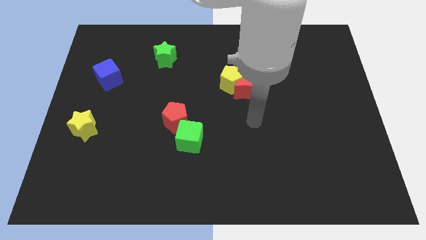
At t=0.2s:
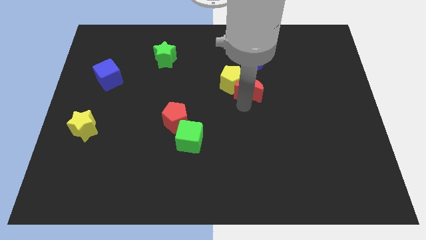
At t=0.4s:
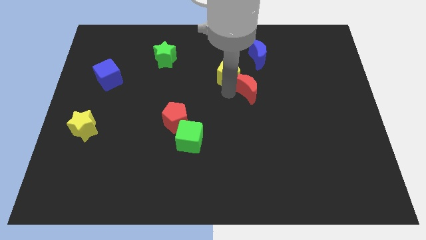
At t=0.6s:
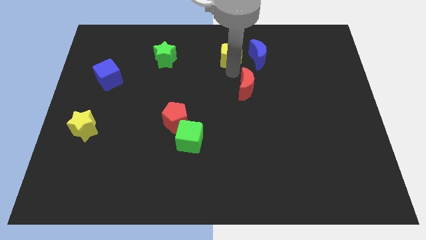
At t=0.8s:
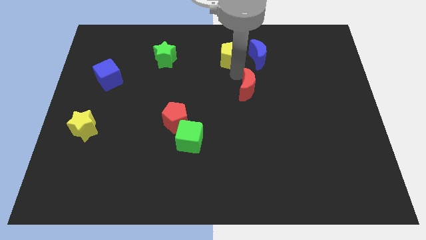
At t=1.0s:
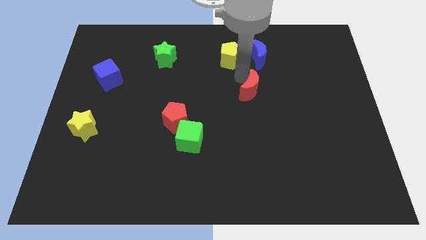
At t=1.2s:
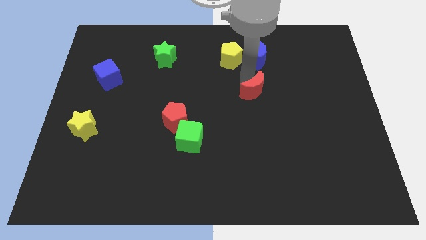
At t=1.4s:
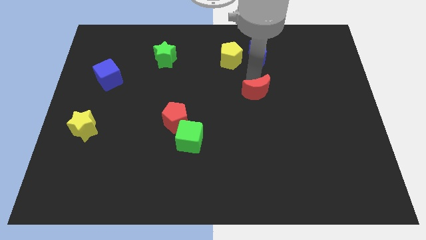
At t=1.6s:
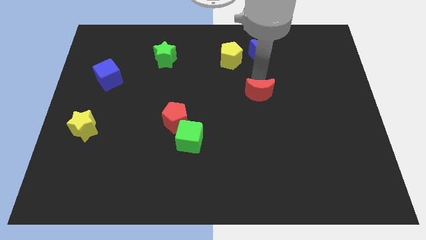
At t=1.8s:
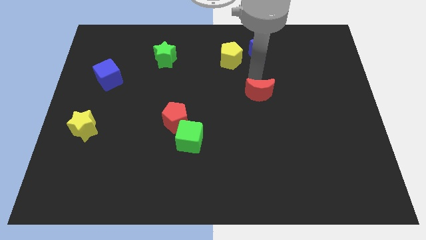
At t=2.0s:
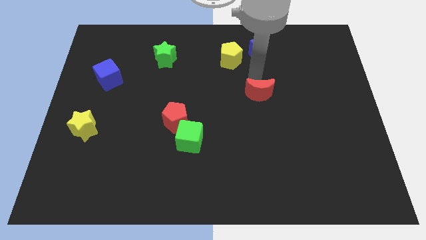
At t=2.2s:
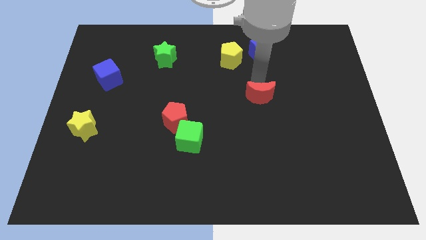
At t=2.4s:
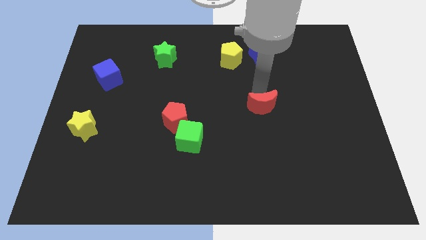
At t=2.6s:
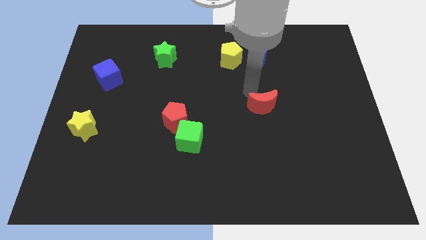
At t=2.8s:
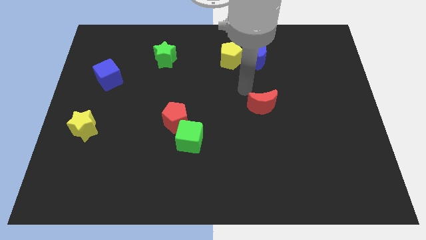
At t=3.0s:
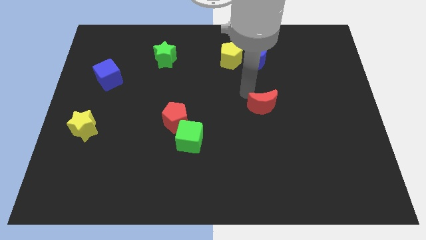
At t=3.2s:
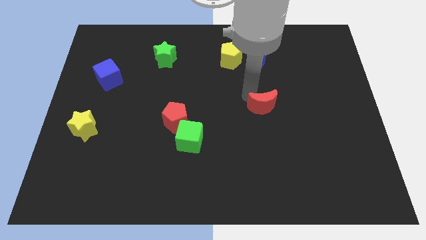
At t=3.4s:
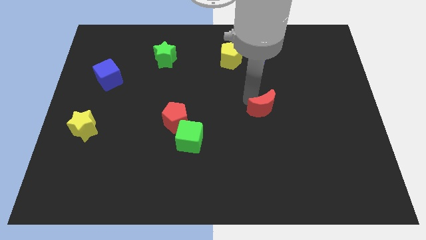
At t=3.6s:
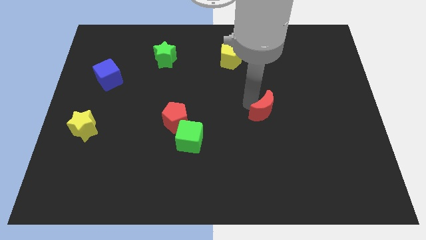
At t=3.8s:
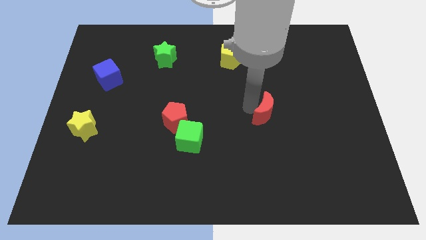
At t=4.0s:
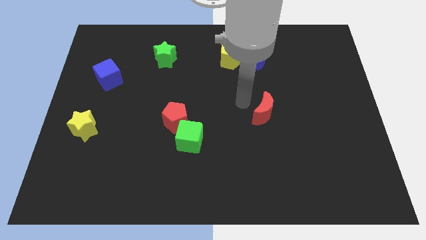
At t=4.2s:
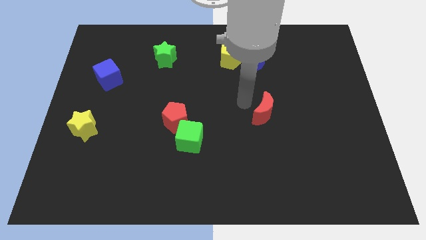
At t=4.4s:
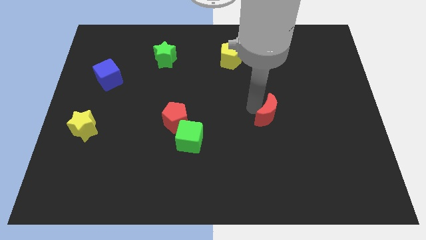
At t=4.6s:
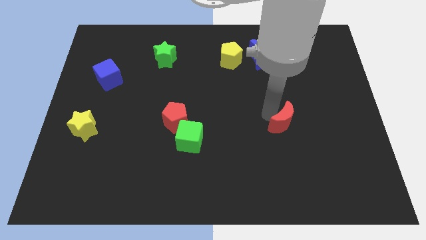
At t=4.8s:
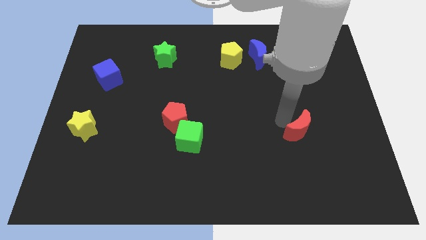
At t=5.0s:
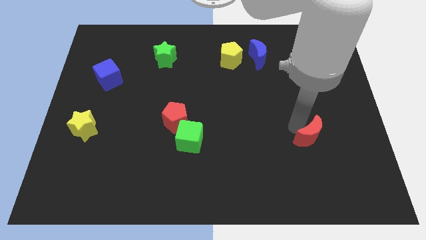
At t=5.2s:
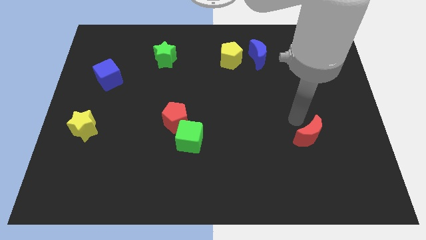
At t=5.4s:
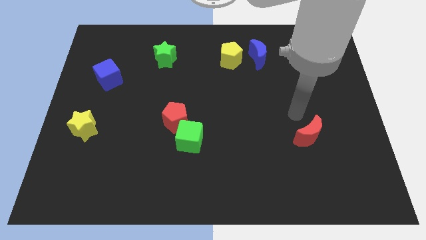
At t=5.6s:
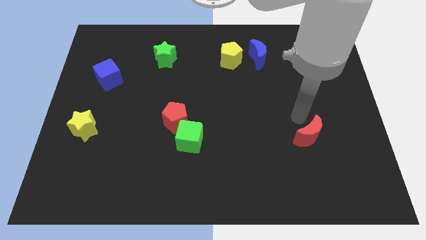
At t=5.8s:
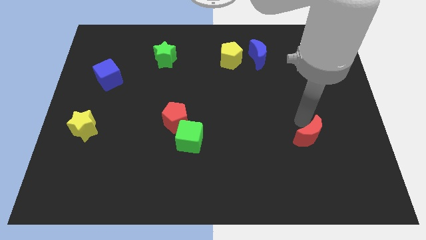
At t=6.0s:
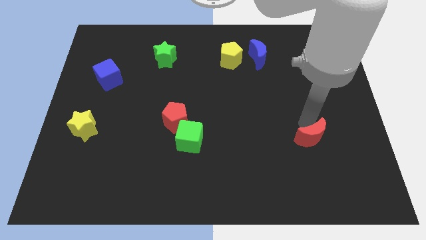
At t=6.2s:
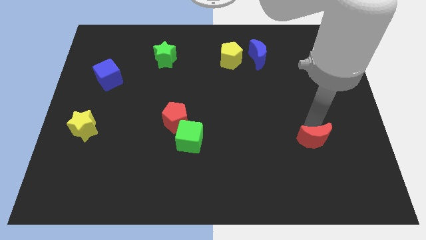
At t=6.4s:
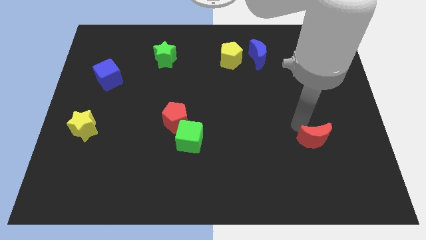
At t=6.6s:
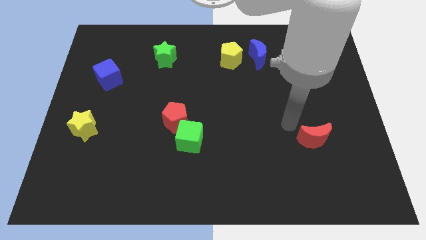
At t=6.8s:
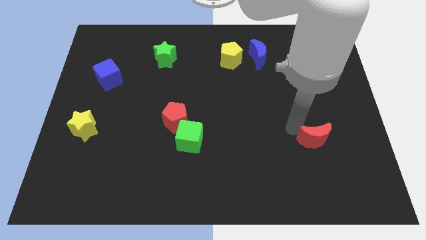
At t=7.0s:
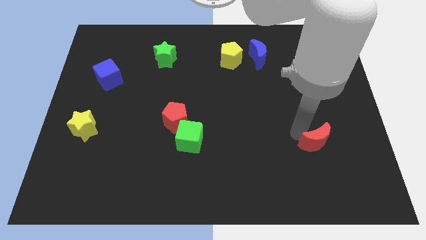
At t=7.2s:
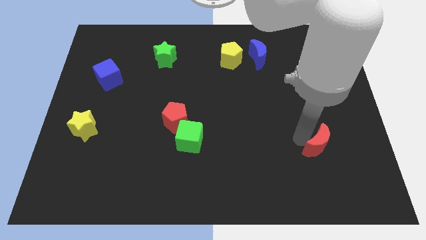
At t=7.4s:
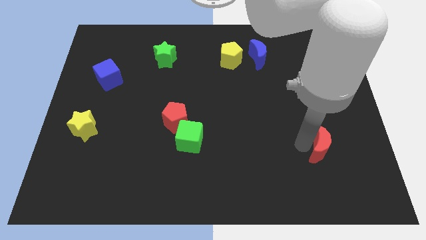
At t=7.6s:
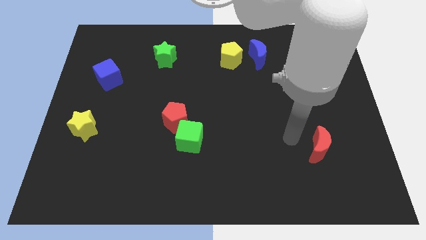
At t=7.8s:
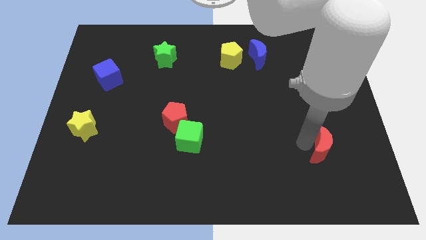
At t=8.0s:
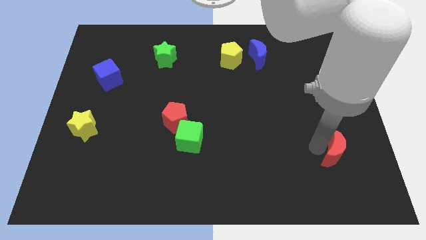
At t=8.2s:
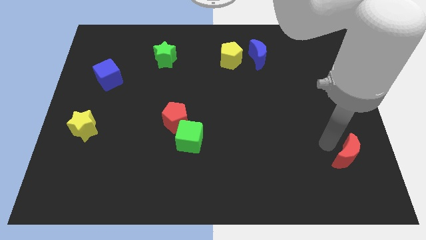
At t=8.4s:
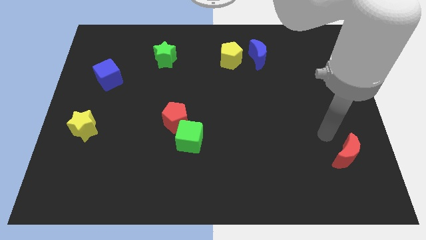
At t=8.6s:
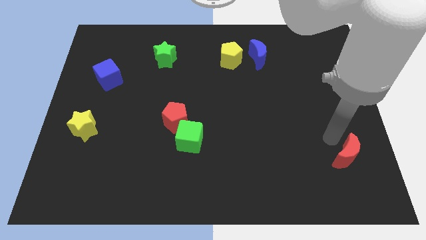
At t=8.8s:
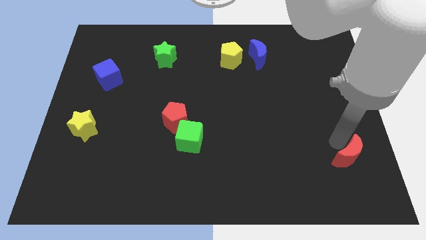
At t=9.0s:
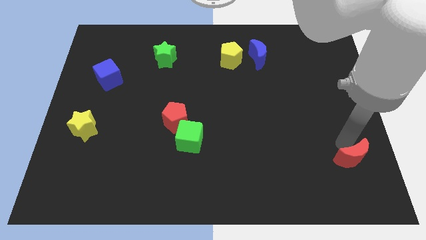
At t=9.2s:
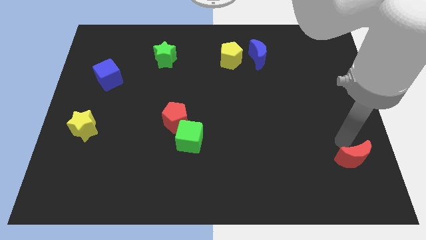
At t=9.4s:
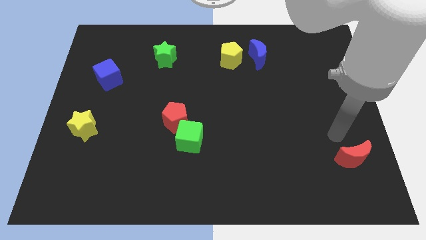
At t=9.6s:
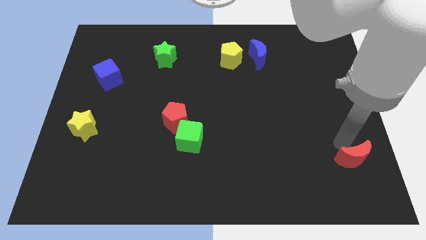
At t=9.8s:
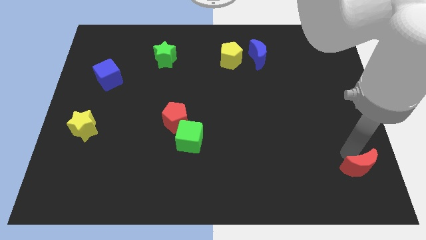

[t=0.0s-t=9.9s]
slide the red moon to the bottom right

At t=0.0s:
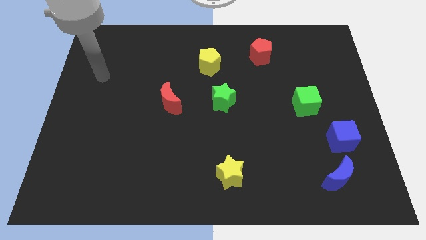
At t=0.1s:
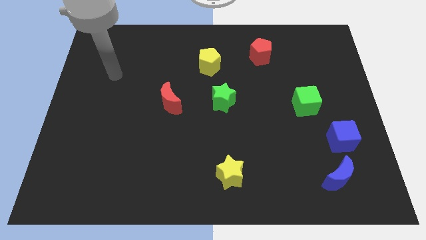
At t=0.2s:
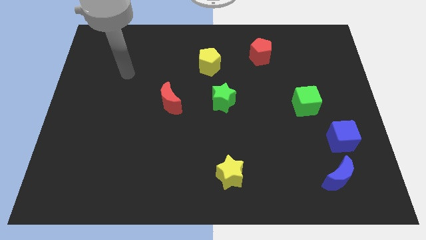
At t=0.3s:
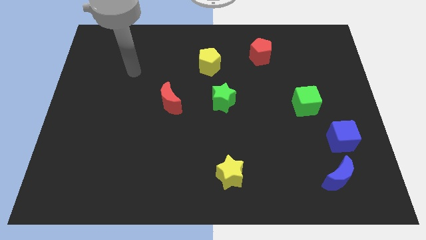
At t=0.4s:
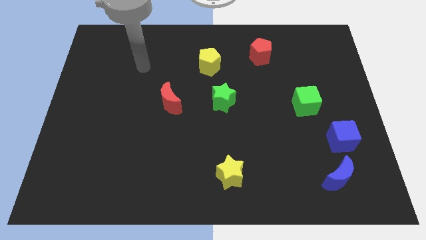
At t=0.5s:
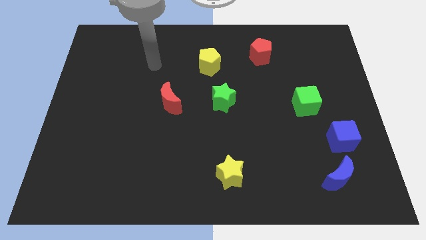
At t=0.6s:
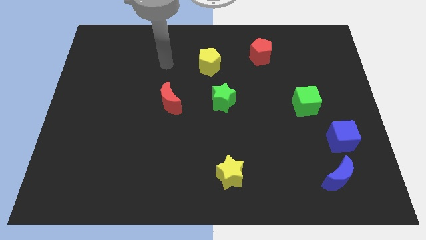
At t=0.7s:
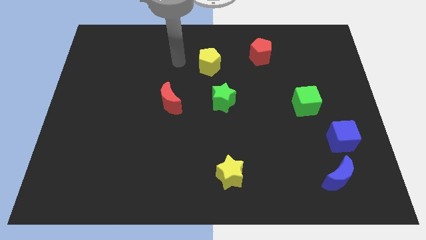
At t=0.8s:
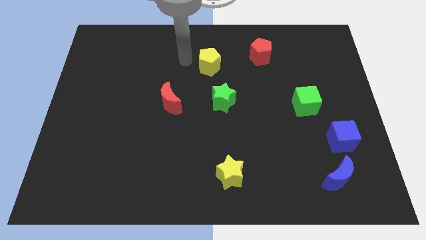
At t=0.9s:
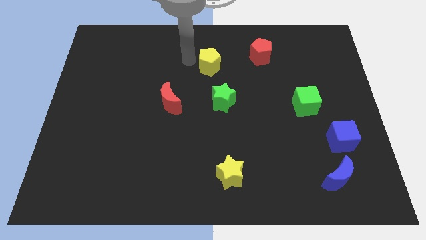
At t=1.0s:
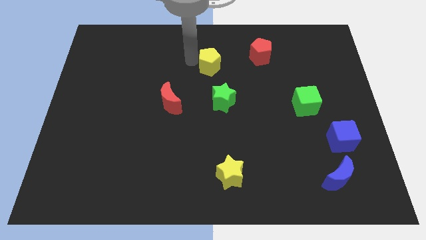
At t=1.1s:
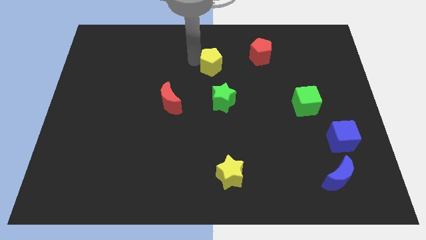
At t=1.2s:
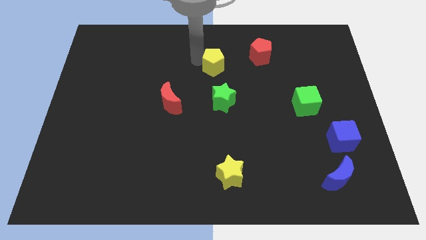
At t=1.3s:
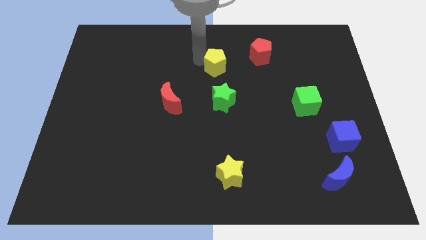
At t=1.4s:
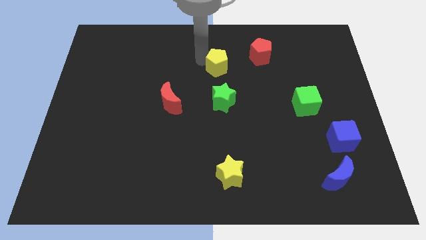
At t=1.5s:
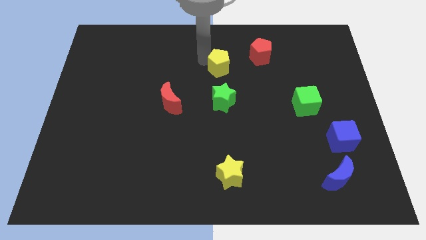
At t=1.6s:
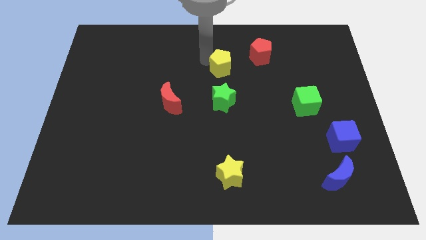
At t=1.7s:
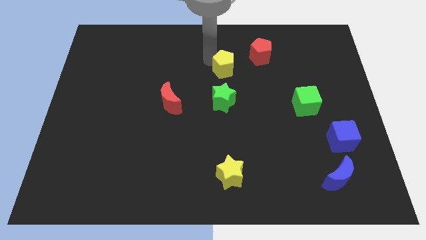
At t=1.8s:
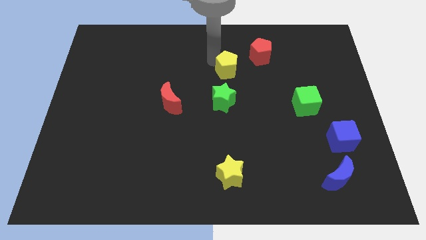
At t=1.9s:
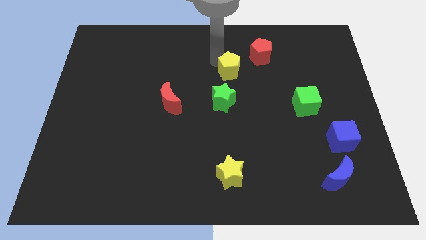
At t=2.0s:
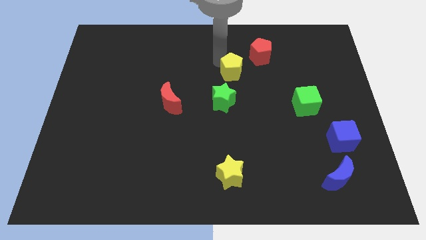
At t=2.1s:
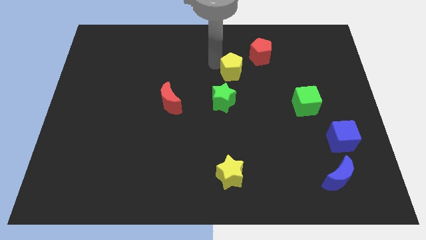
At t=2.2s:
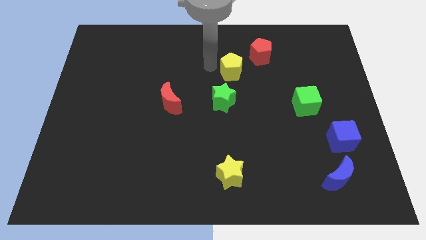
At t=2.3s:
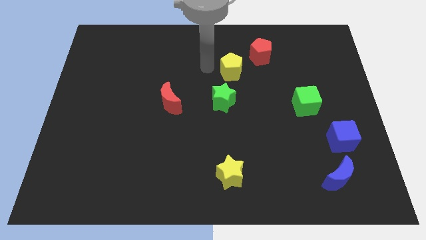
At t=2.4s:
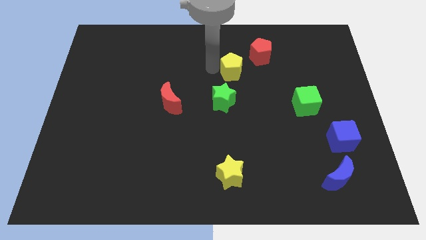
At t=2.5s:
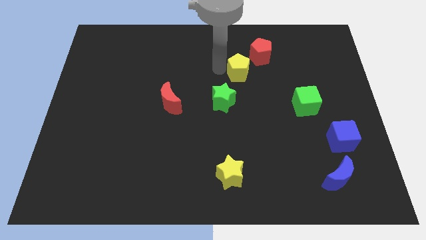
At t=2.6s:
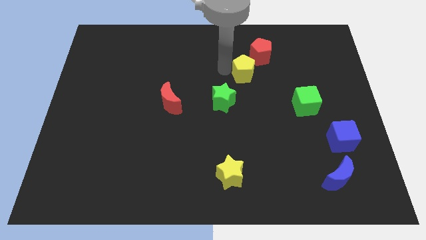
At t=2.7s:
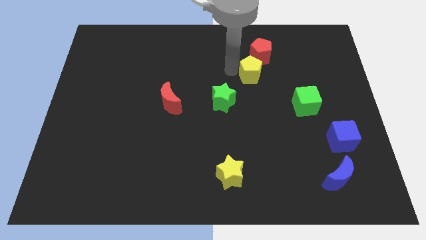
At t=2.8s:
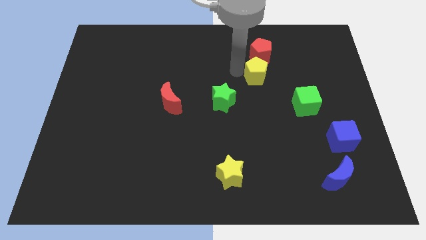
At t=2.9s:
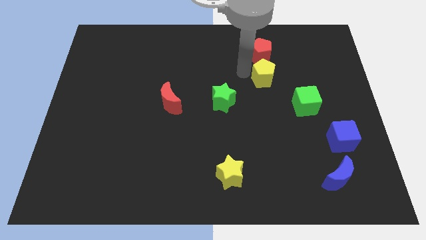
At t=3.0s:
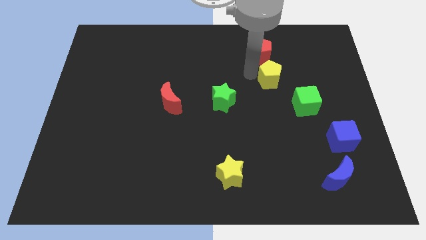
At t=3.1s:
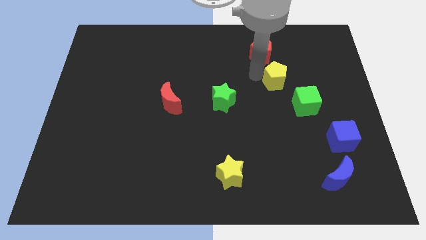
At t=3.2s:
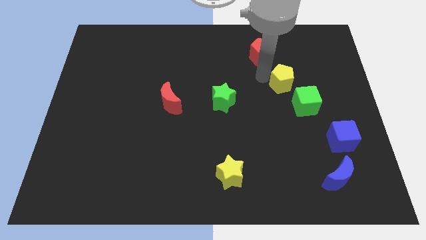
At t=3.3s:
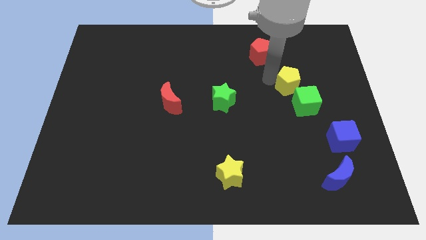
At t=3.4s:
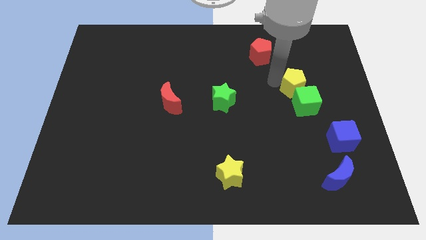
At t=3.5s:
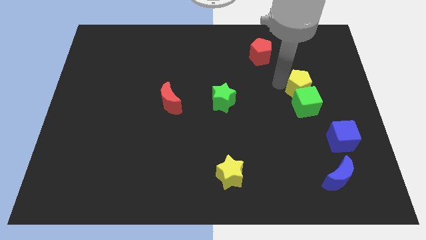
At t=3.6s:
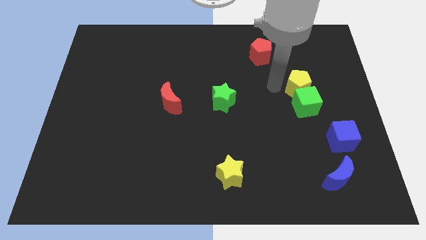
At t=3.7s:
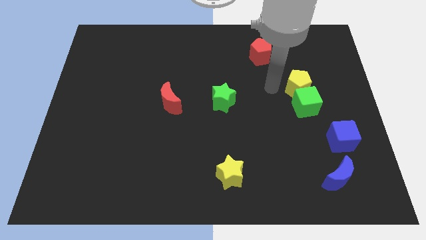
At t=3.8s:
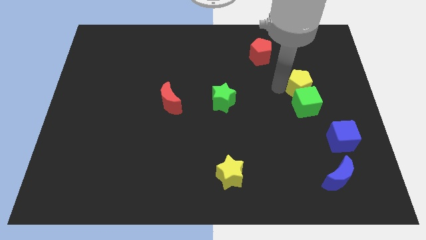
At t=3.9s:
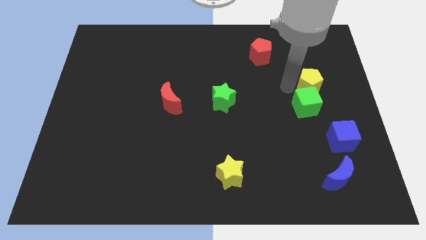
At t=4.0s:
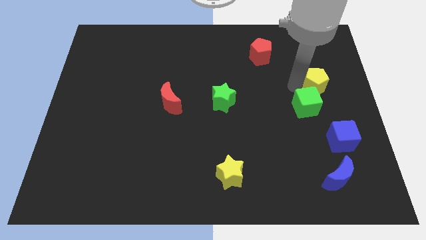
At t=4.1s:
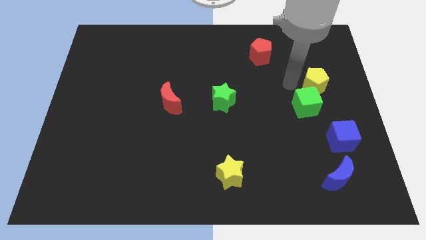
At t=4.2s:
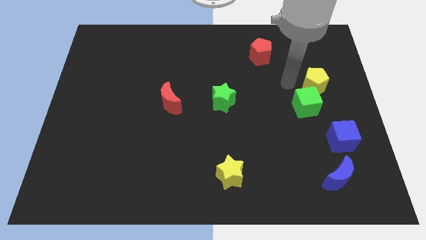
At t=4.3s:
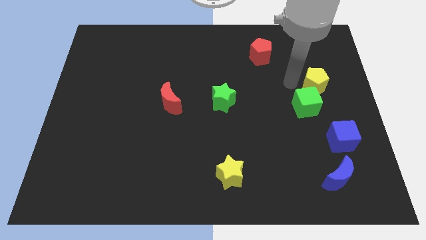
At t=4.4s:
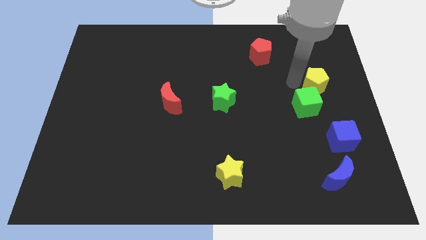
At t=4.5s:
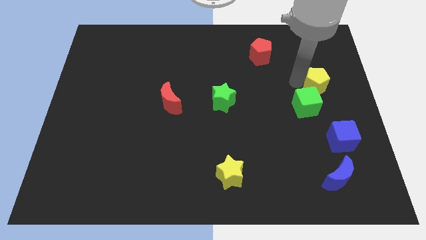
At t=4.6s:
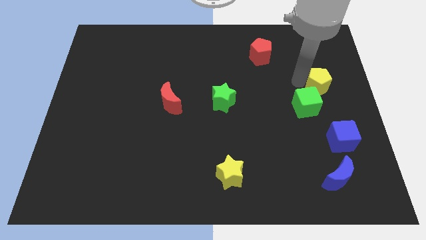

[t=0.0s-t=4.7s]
put the yellow pentagon to the right side
